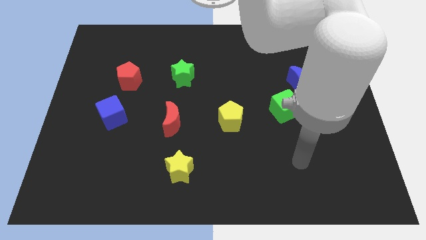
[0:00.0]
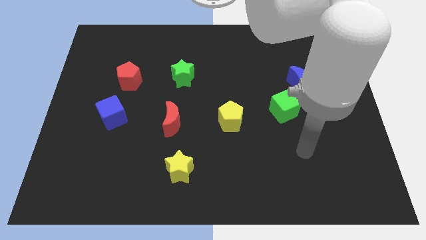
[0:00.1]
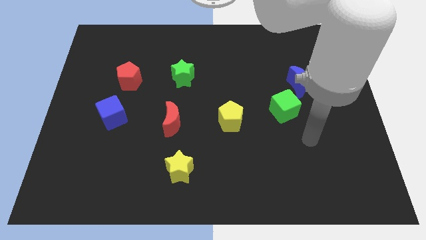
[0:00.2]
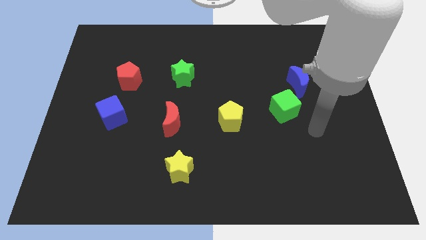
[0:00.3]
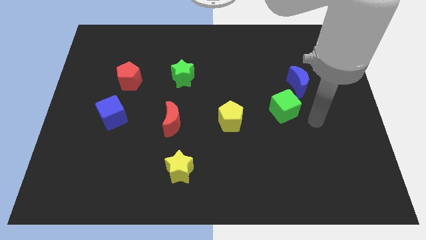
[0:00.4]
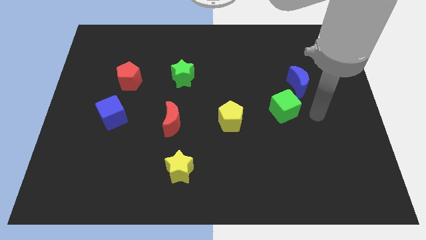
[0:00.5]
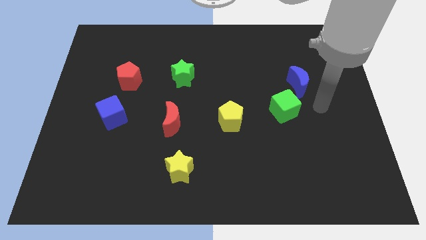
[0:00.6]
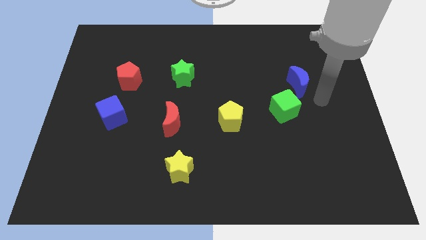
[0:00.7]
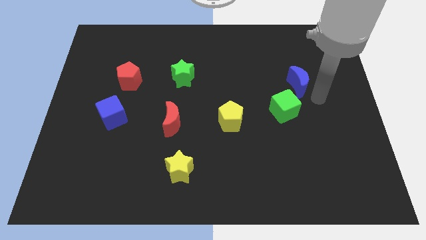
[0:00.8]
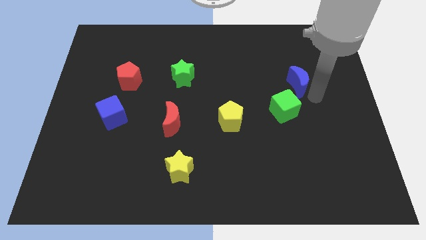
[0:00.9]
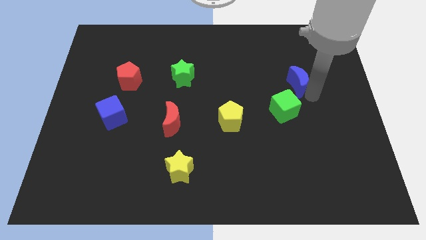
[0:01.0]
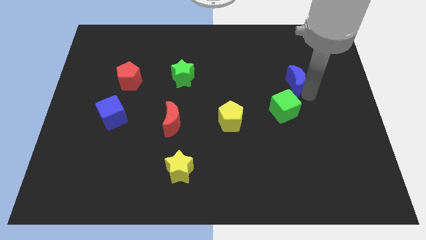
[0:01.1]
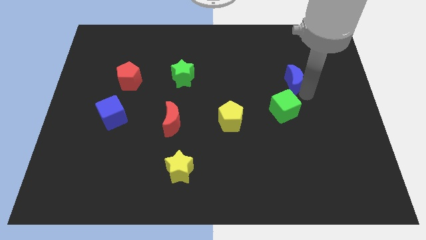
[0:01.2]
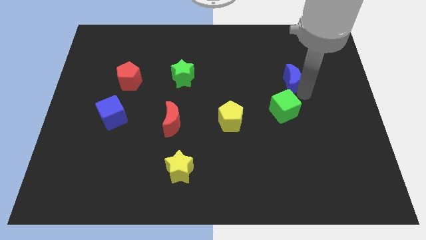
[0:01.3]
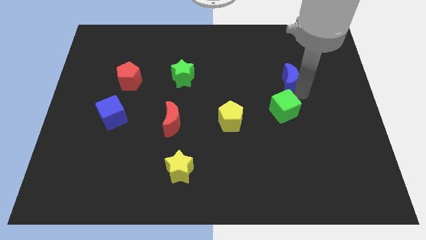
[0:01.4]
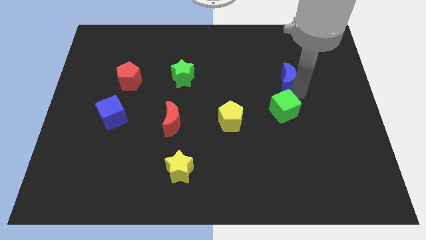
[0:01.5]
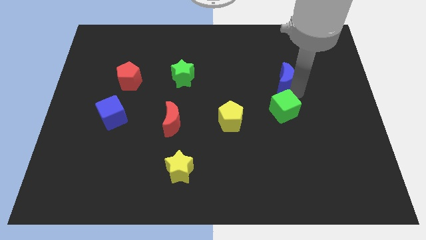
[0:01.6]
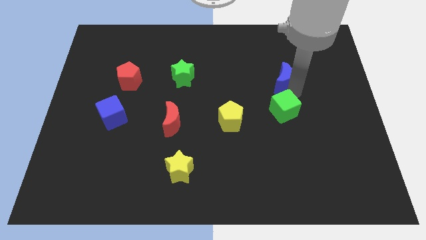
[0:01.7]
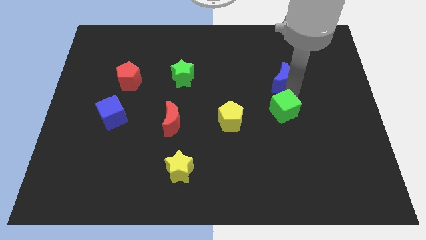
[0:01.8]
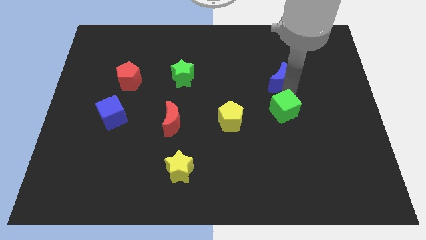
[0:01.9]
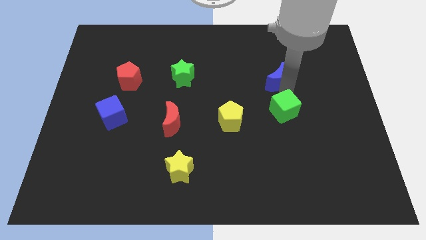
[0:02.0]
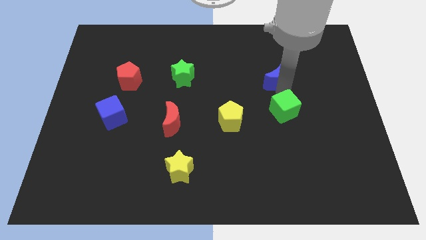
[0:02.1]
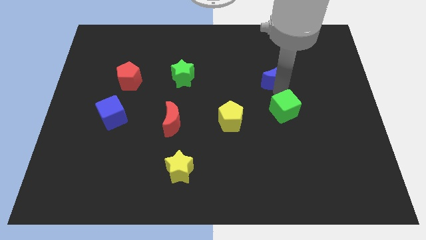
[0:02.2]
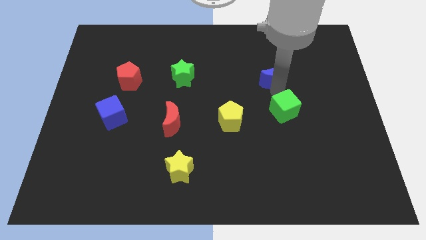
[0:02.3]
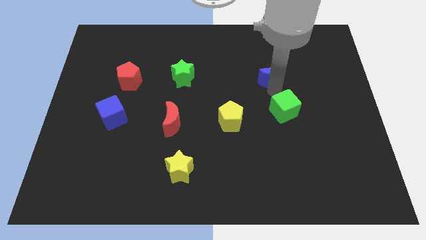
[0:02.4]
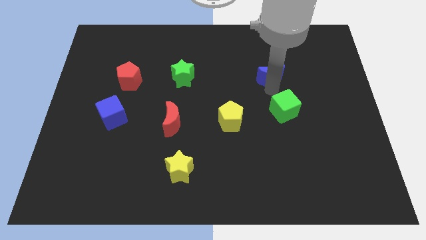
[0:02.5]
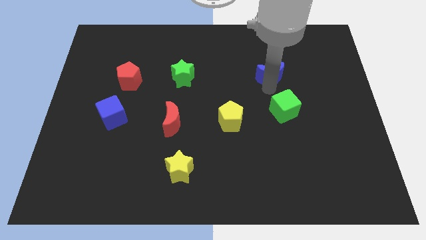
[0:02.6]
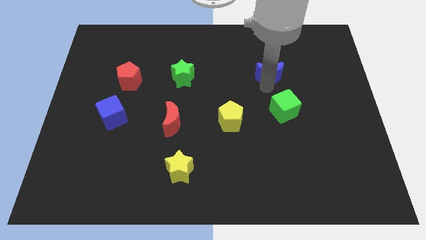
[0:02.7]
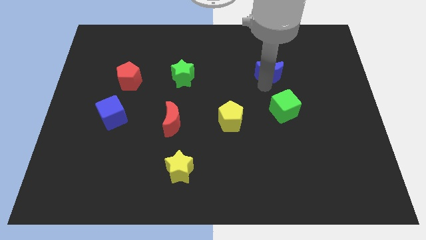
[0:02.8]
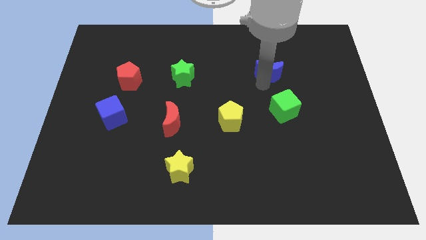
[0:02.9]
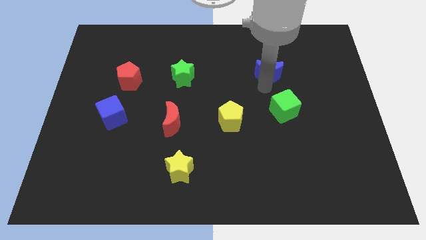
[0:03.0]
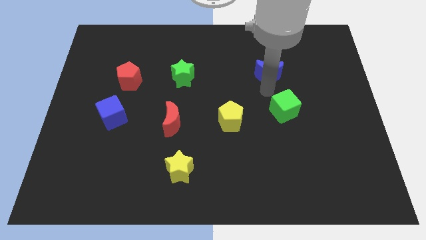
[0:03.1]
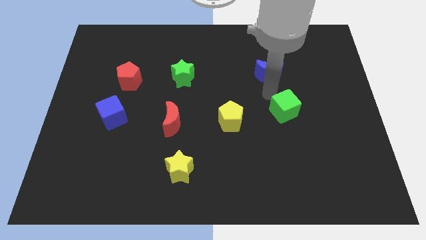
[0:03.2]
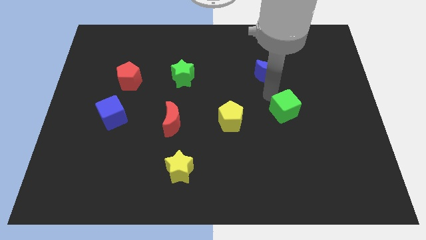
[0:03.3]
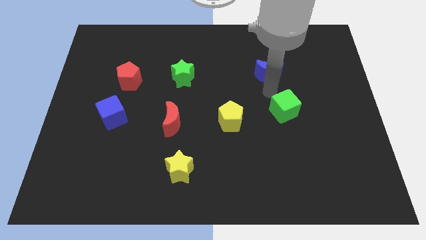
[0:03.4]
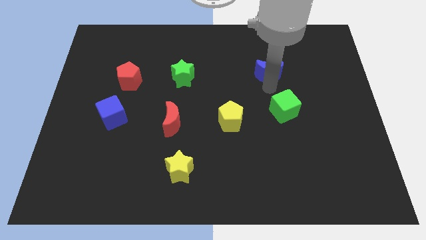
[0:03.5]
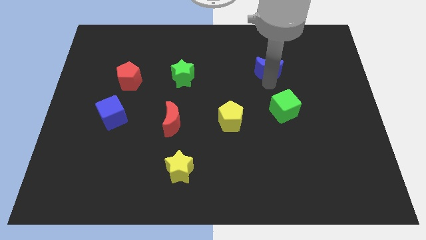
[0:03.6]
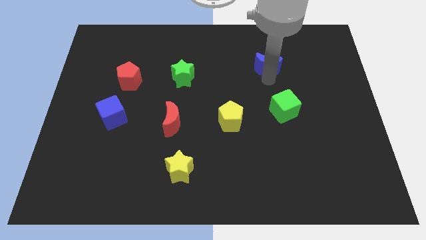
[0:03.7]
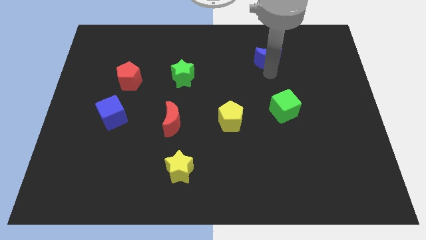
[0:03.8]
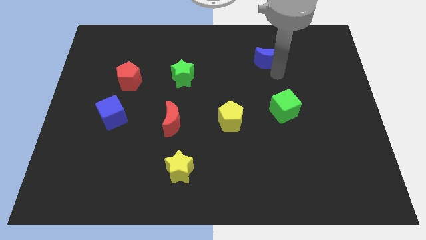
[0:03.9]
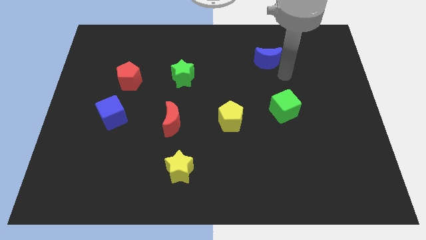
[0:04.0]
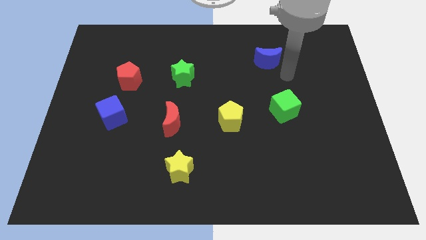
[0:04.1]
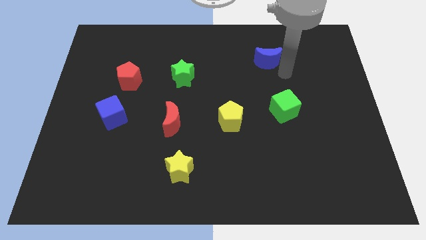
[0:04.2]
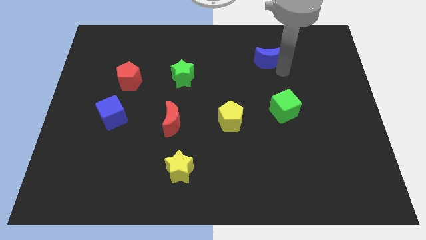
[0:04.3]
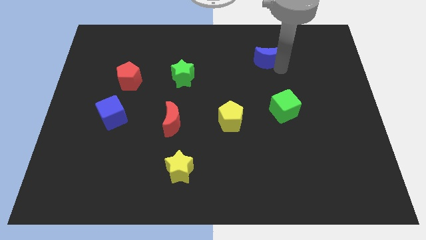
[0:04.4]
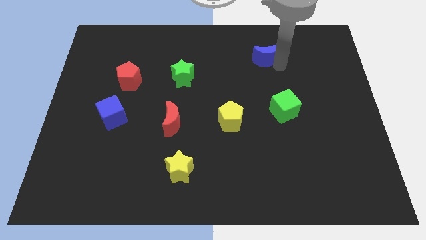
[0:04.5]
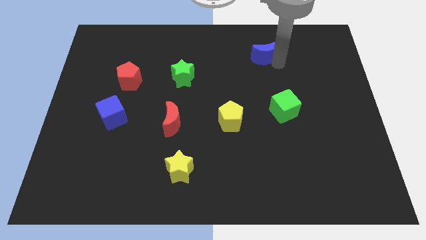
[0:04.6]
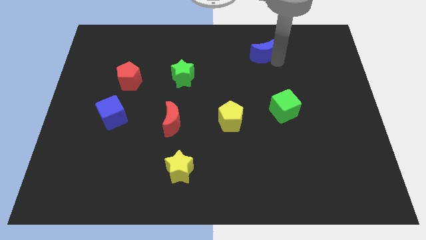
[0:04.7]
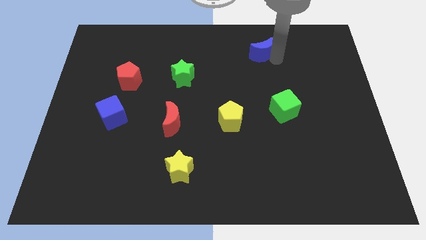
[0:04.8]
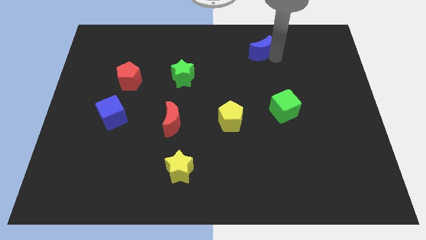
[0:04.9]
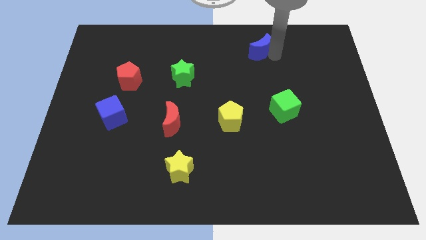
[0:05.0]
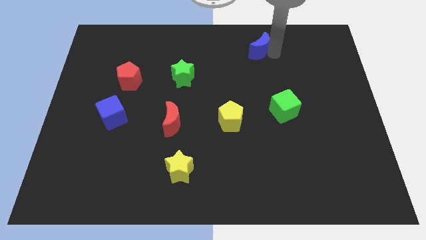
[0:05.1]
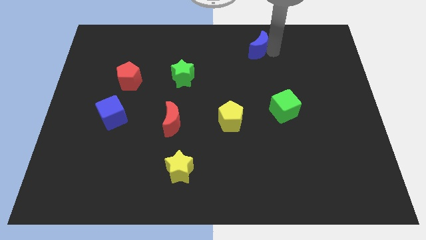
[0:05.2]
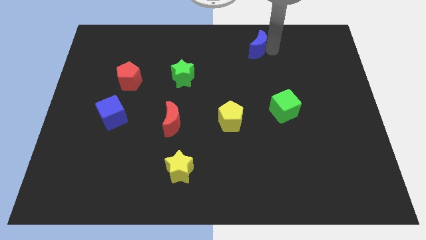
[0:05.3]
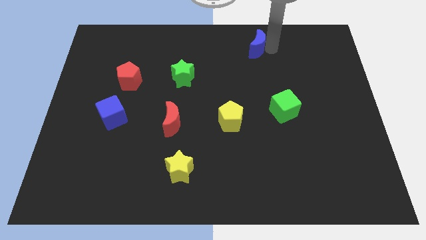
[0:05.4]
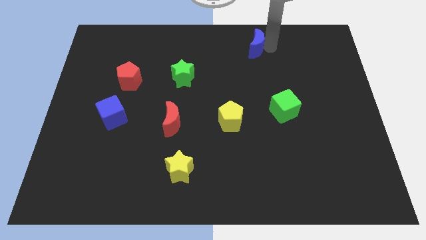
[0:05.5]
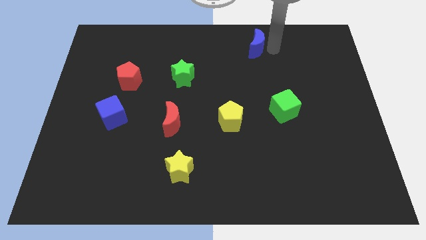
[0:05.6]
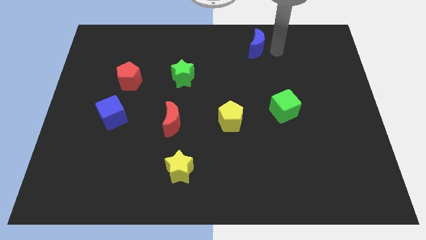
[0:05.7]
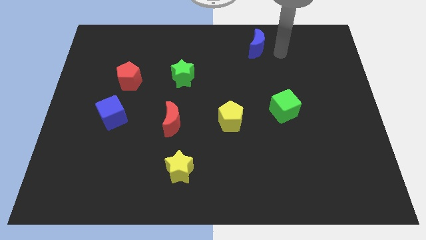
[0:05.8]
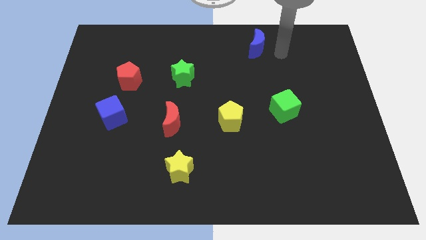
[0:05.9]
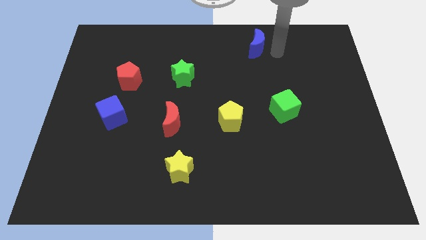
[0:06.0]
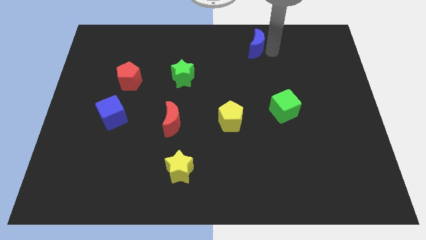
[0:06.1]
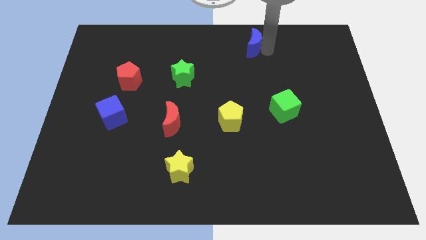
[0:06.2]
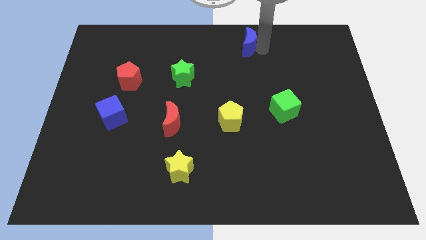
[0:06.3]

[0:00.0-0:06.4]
push the blue moon to the top
